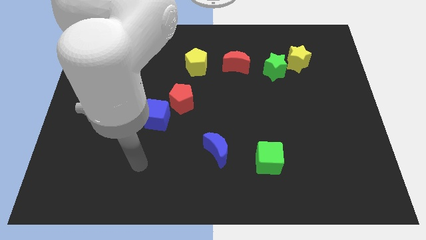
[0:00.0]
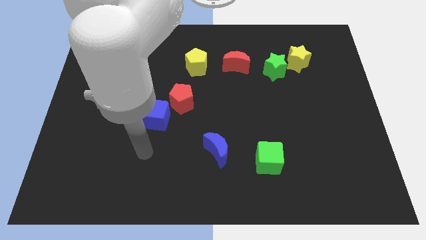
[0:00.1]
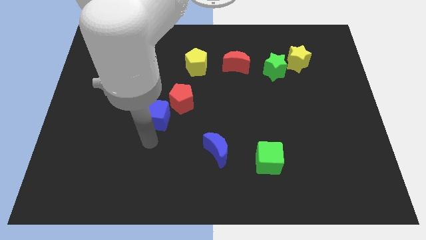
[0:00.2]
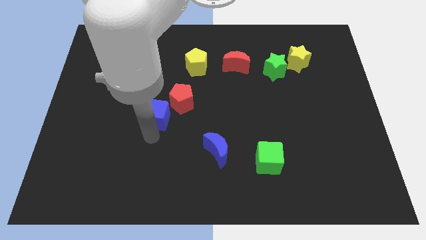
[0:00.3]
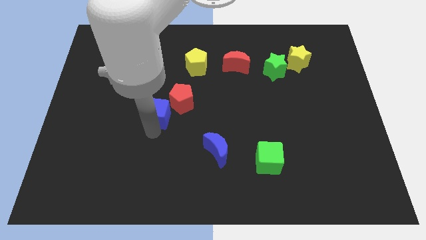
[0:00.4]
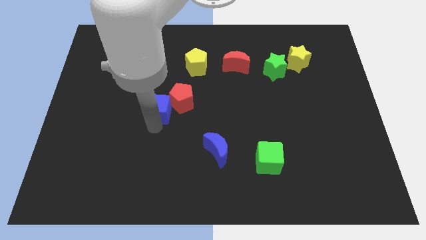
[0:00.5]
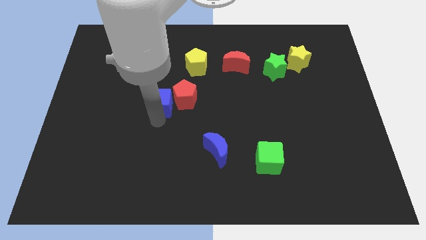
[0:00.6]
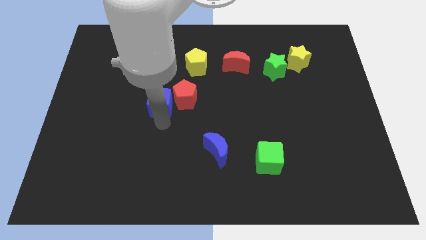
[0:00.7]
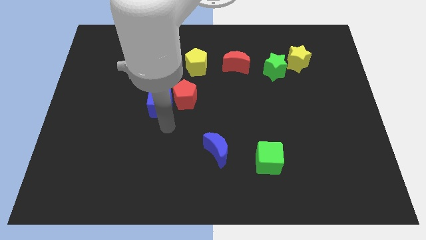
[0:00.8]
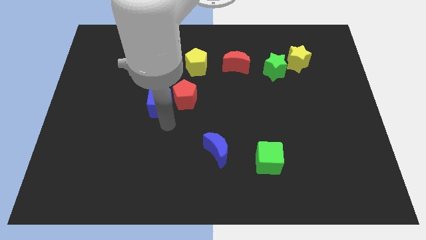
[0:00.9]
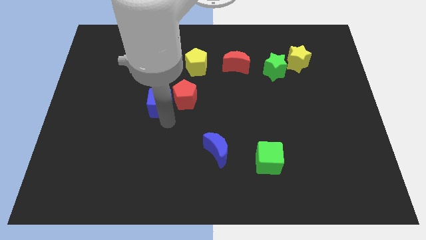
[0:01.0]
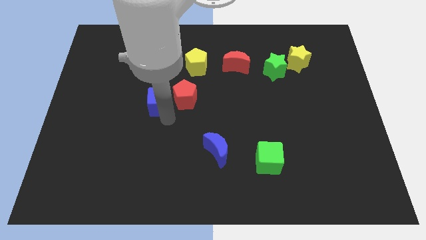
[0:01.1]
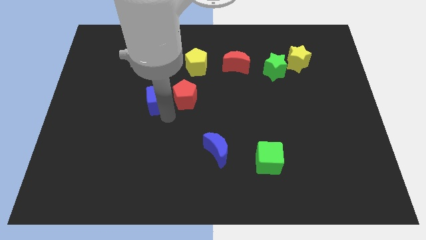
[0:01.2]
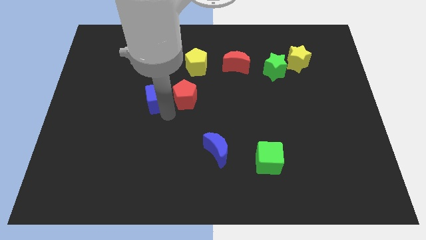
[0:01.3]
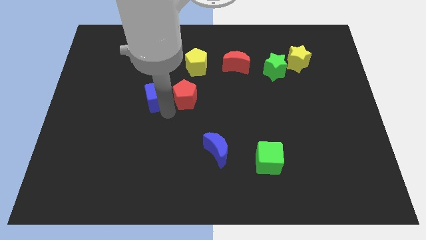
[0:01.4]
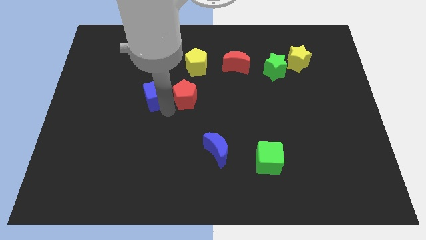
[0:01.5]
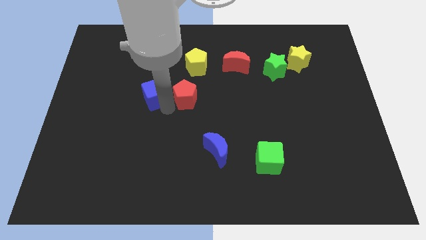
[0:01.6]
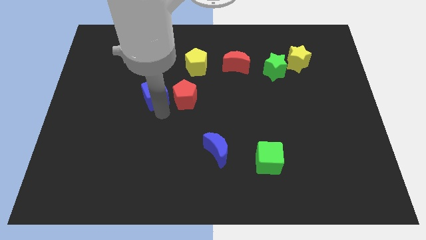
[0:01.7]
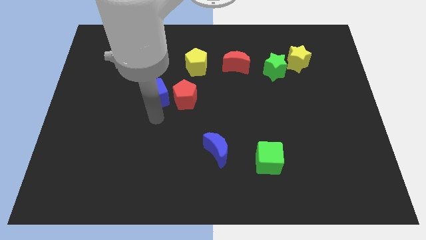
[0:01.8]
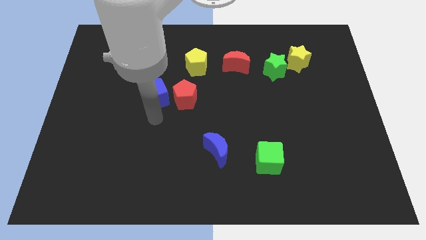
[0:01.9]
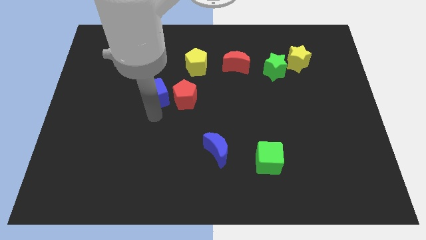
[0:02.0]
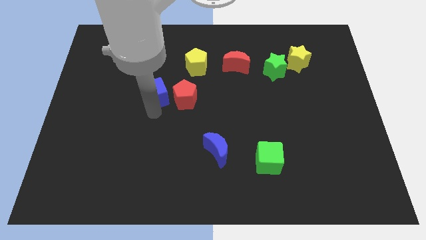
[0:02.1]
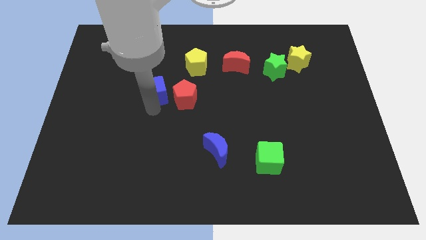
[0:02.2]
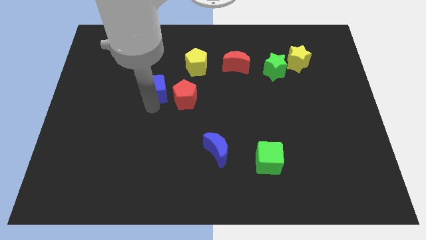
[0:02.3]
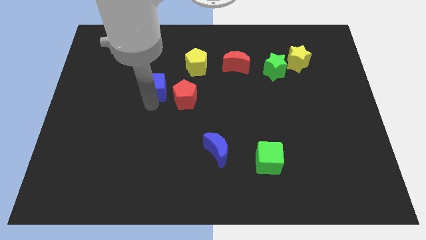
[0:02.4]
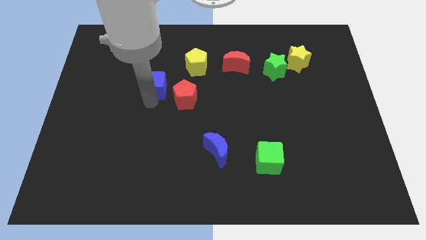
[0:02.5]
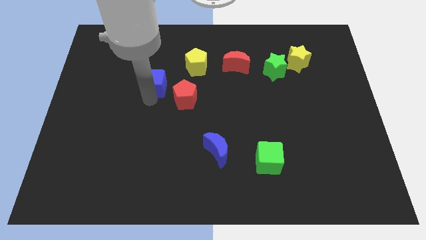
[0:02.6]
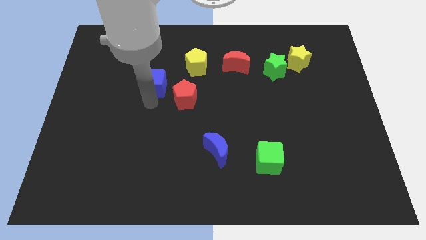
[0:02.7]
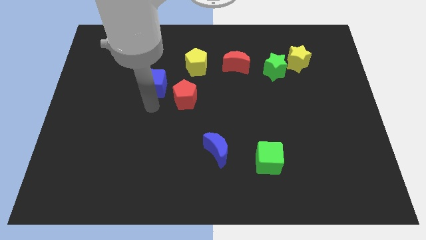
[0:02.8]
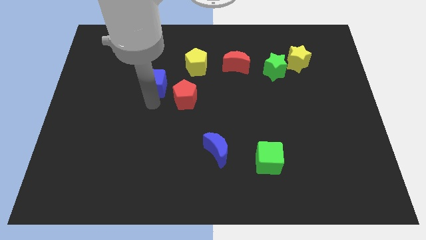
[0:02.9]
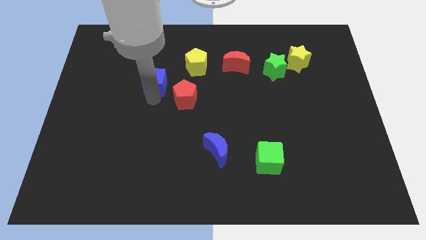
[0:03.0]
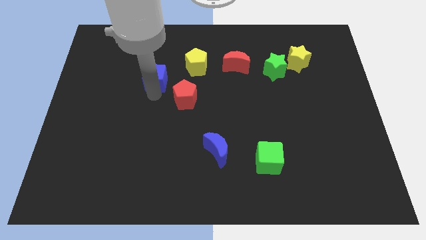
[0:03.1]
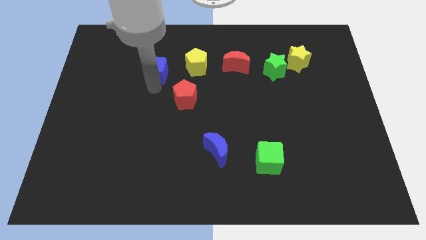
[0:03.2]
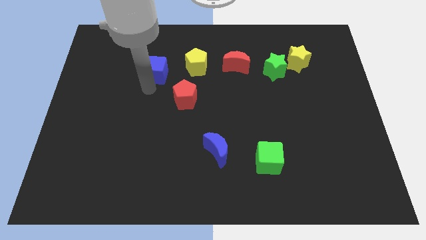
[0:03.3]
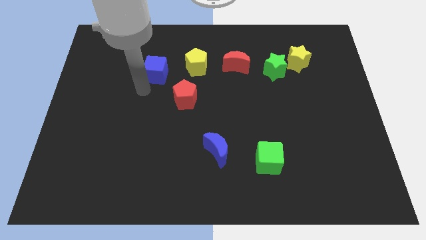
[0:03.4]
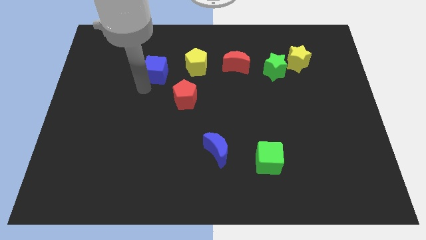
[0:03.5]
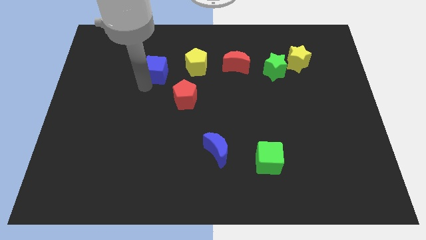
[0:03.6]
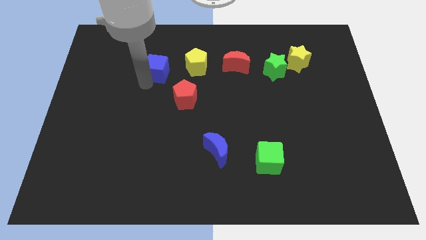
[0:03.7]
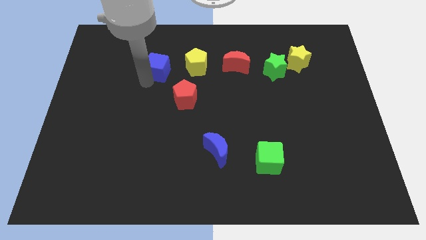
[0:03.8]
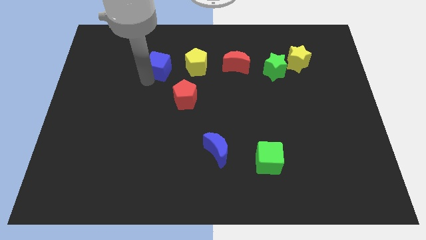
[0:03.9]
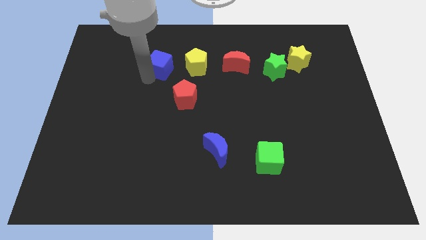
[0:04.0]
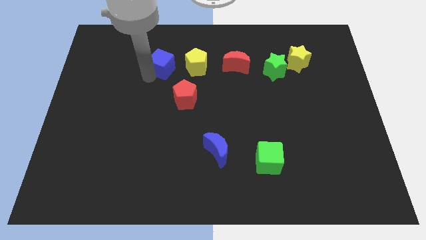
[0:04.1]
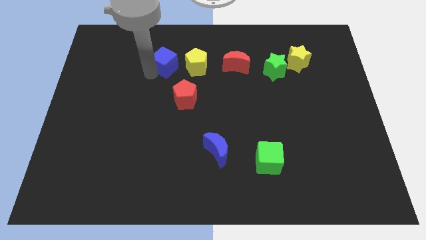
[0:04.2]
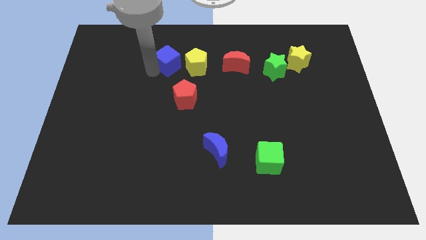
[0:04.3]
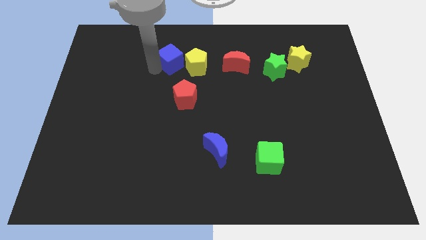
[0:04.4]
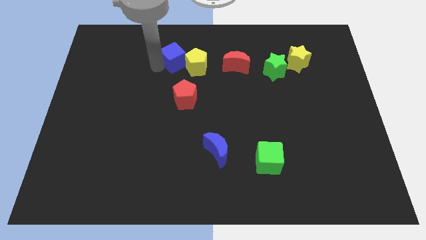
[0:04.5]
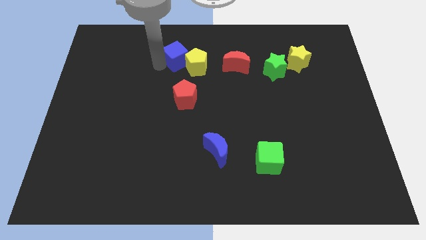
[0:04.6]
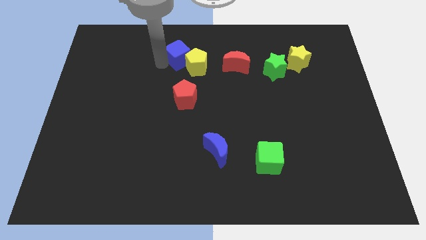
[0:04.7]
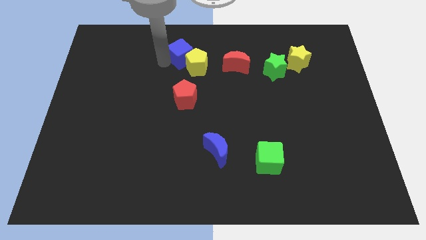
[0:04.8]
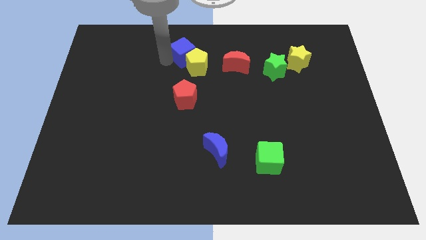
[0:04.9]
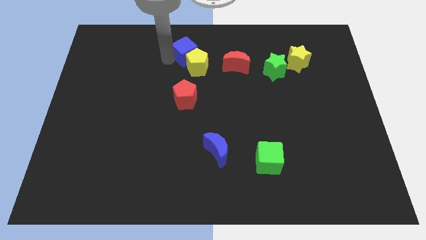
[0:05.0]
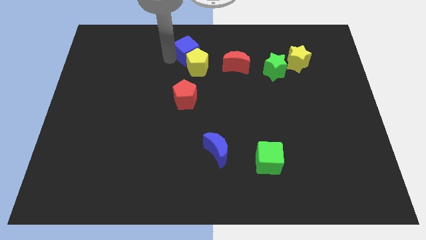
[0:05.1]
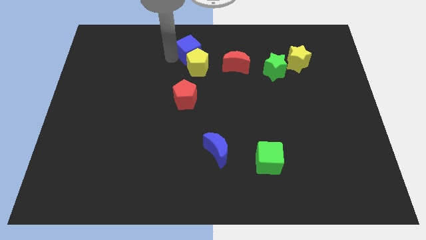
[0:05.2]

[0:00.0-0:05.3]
push the blue cube to the towards your base
